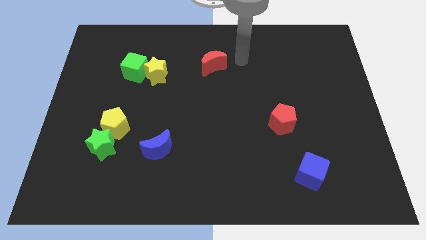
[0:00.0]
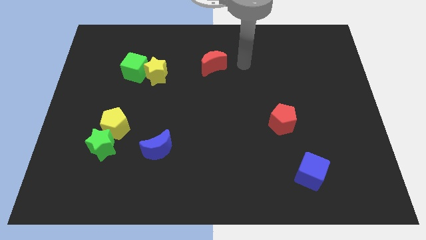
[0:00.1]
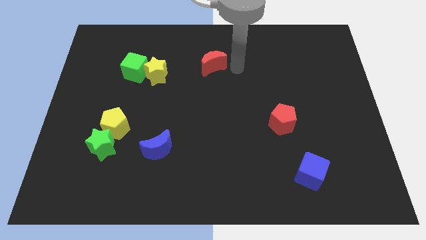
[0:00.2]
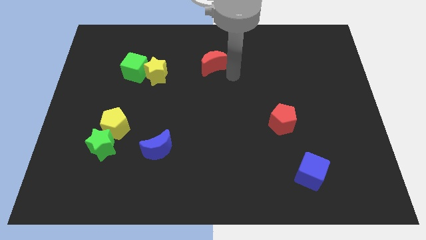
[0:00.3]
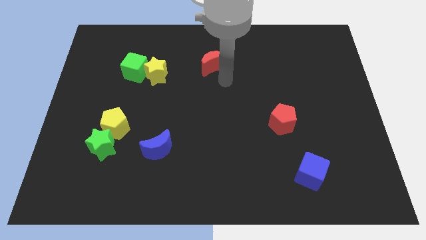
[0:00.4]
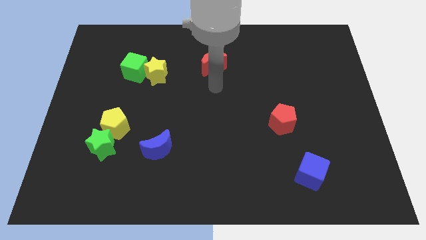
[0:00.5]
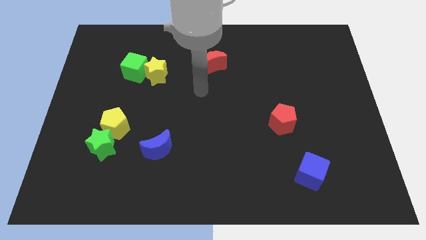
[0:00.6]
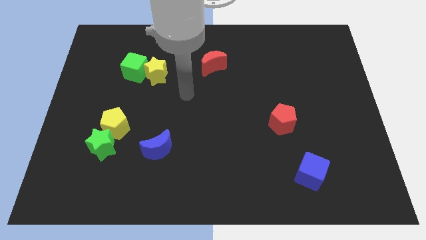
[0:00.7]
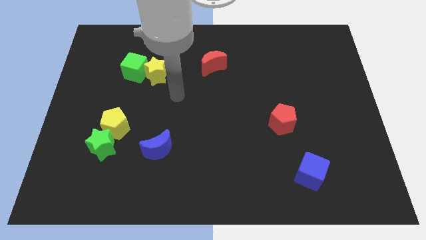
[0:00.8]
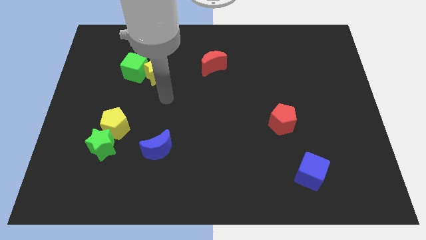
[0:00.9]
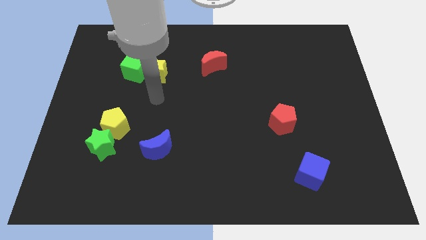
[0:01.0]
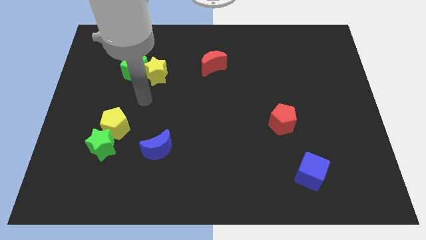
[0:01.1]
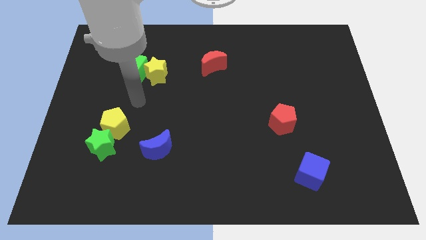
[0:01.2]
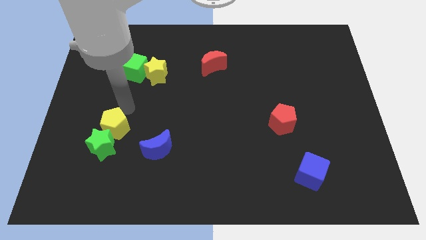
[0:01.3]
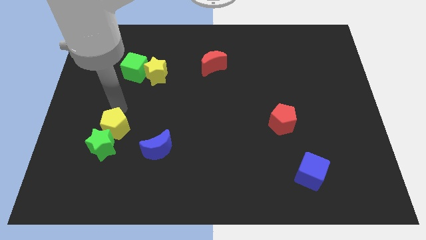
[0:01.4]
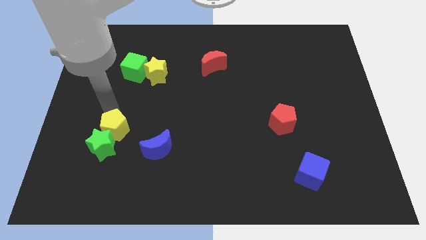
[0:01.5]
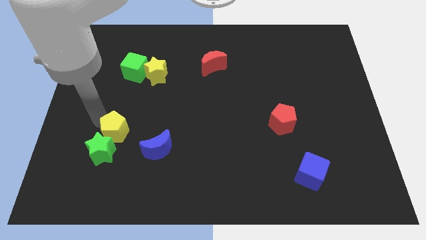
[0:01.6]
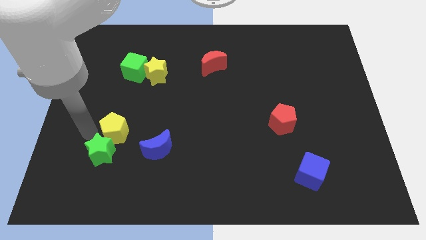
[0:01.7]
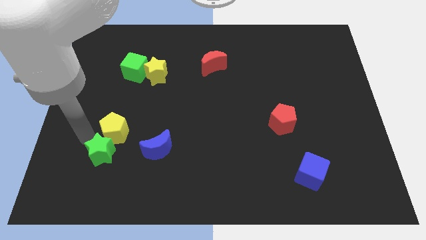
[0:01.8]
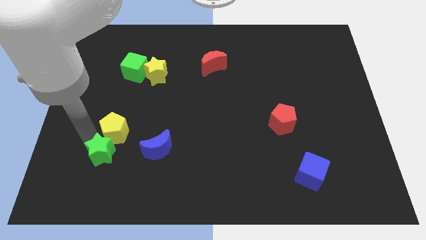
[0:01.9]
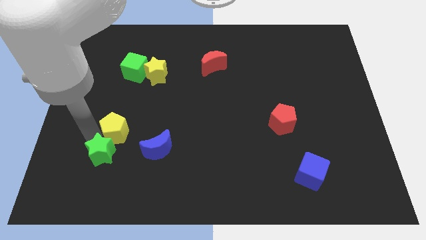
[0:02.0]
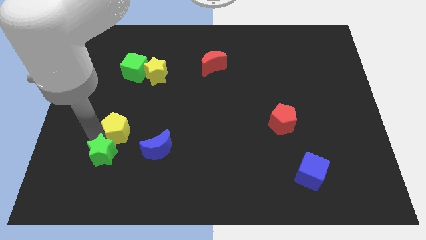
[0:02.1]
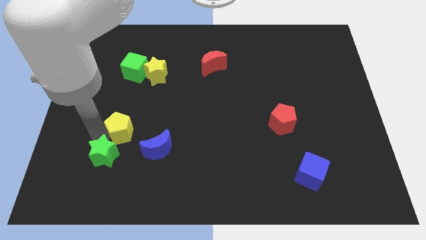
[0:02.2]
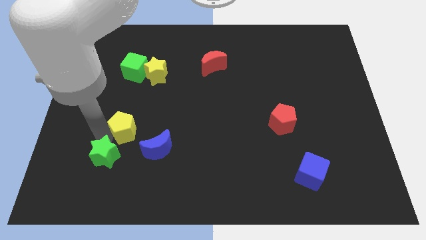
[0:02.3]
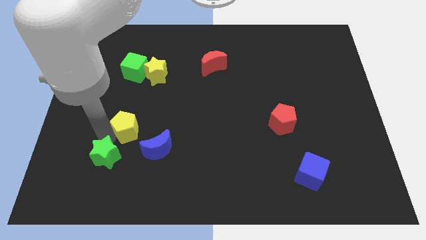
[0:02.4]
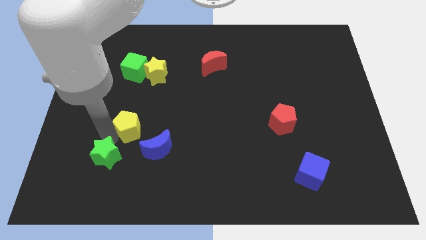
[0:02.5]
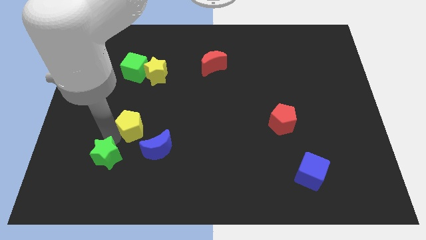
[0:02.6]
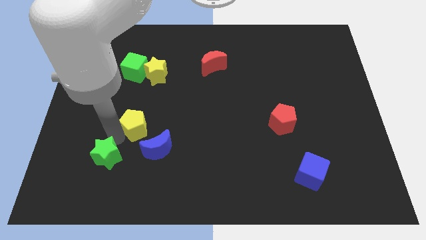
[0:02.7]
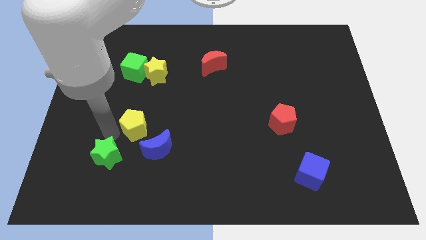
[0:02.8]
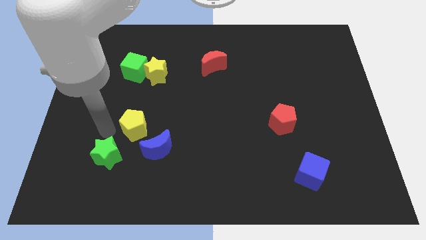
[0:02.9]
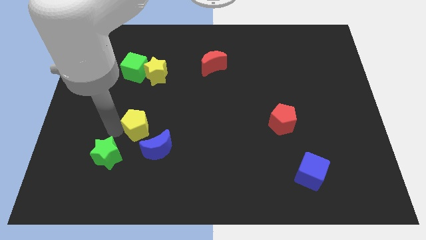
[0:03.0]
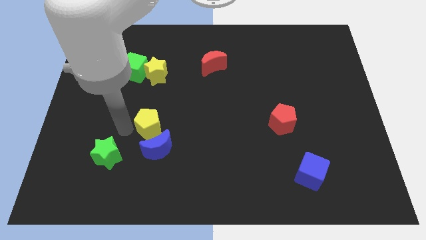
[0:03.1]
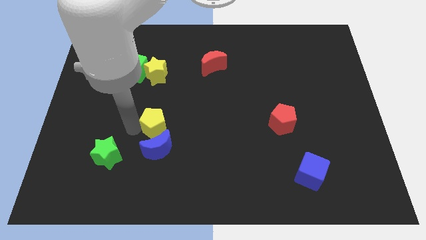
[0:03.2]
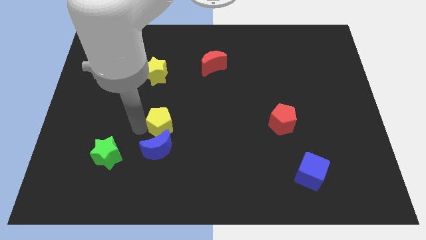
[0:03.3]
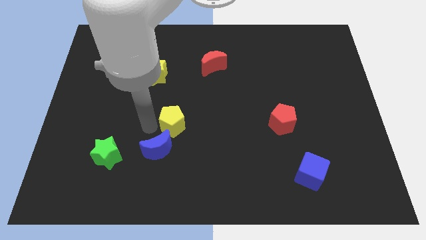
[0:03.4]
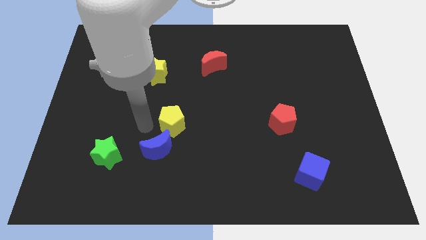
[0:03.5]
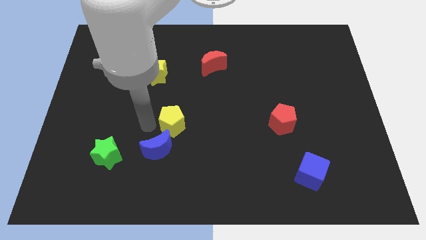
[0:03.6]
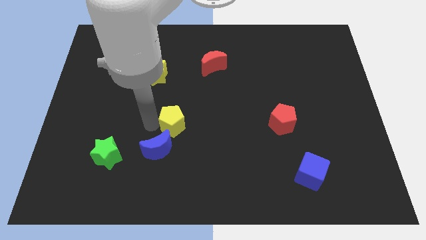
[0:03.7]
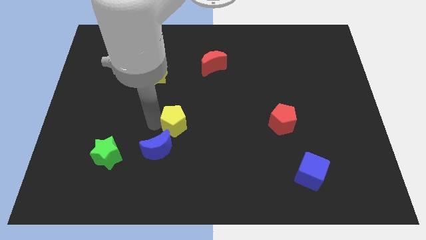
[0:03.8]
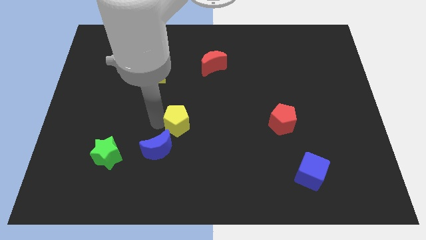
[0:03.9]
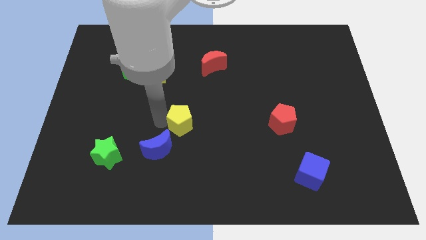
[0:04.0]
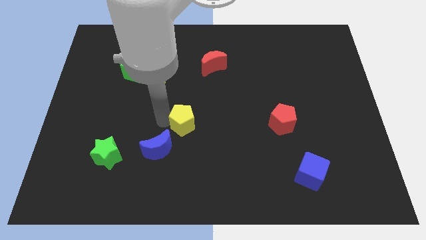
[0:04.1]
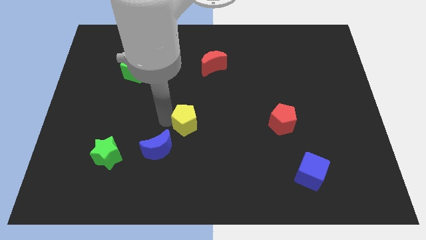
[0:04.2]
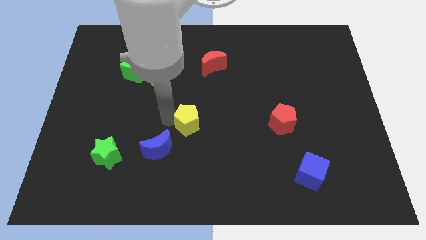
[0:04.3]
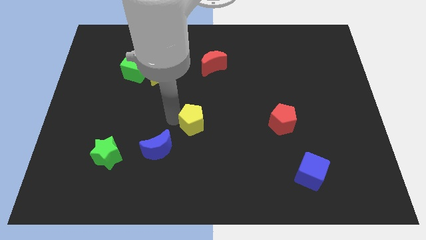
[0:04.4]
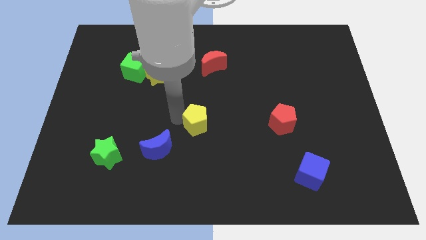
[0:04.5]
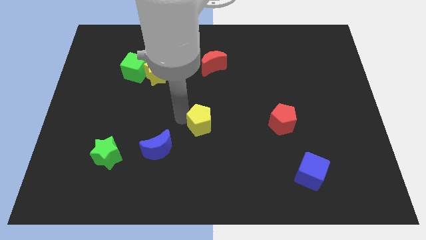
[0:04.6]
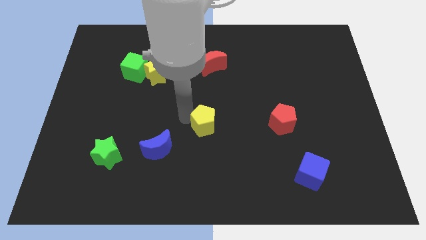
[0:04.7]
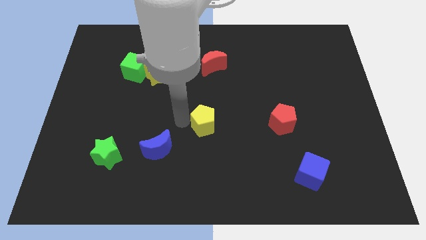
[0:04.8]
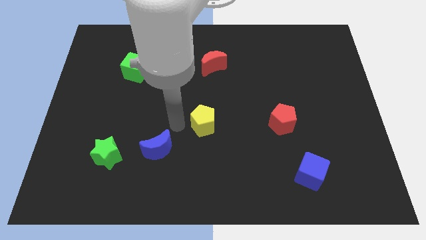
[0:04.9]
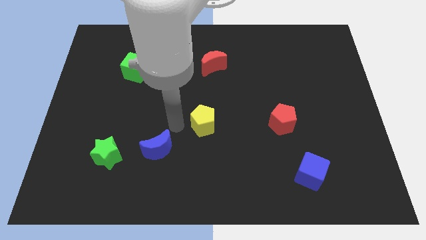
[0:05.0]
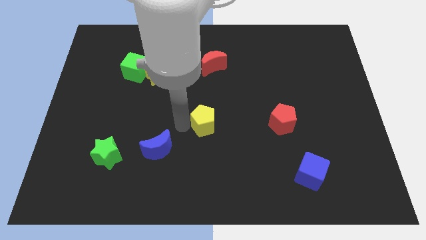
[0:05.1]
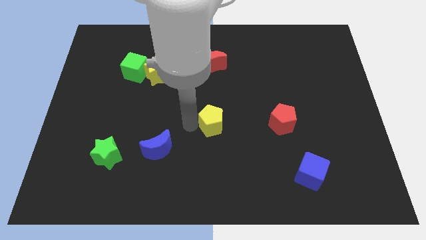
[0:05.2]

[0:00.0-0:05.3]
put the yellow pentagon just left of the red pentagon
